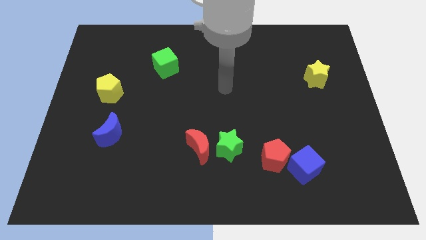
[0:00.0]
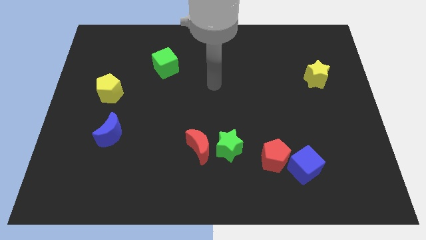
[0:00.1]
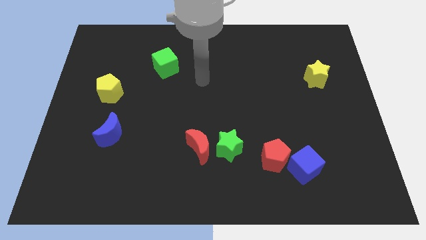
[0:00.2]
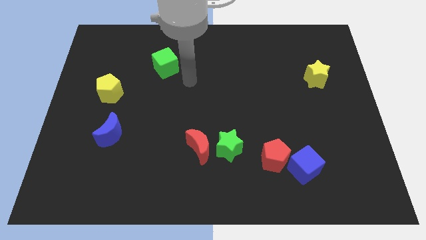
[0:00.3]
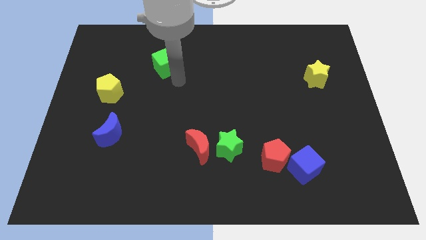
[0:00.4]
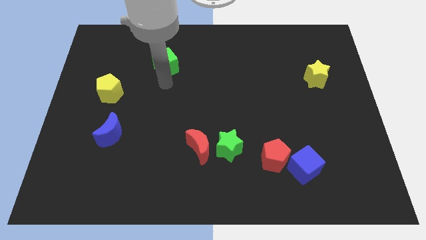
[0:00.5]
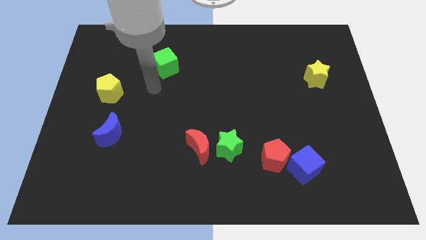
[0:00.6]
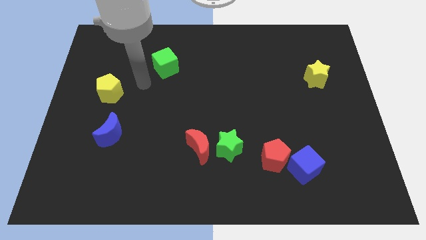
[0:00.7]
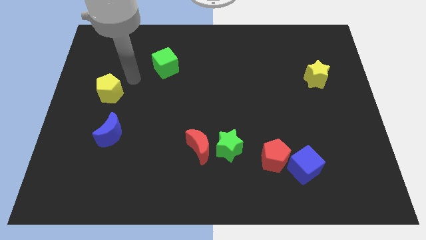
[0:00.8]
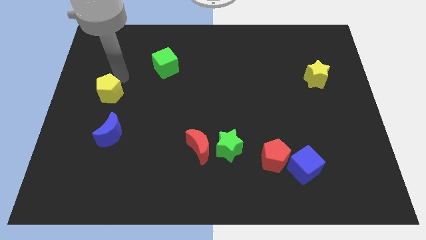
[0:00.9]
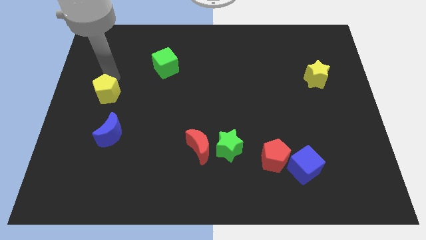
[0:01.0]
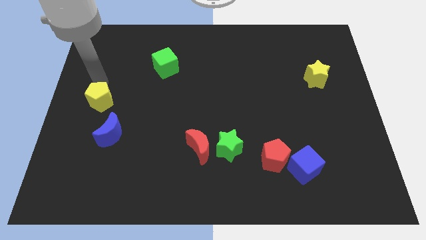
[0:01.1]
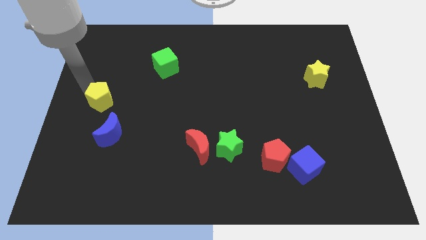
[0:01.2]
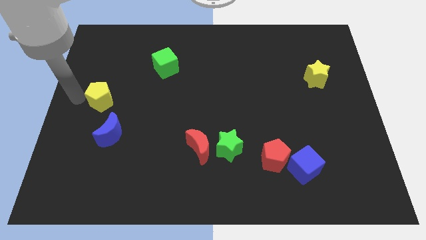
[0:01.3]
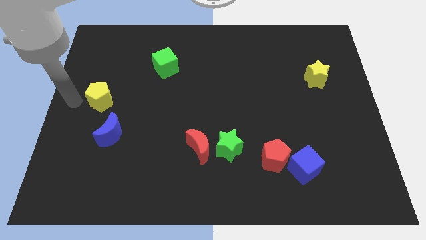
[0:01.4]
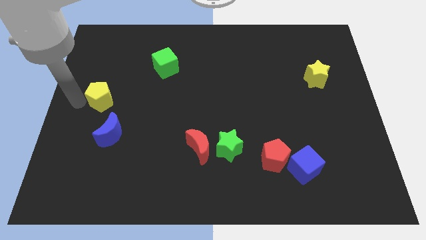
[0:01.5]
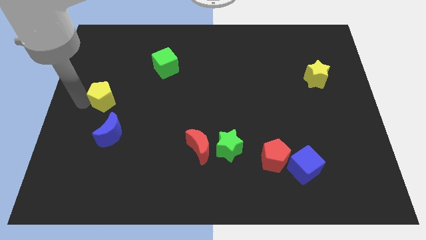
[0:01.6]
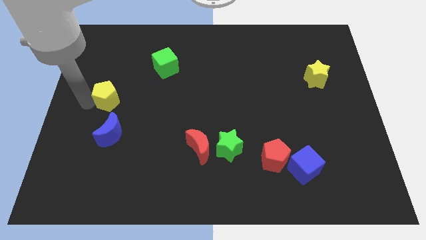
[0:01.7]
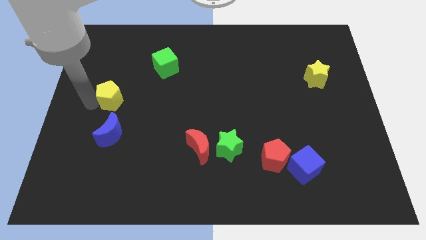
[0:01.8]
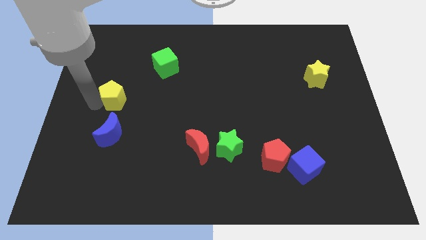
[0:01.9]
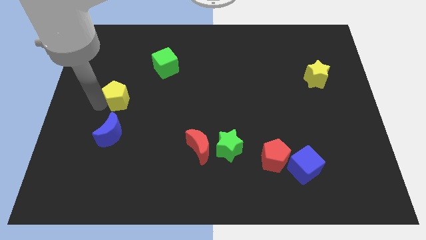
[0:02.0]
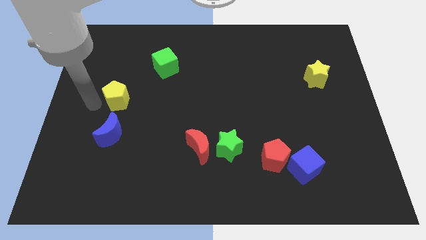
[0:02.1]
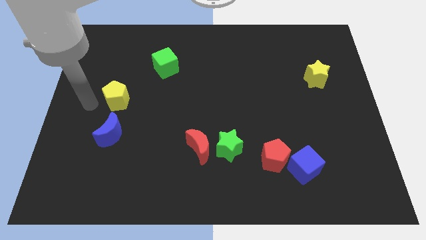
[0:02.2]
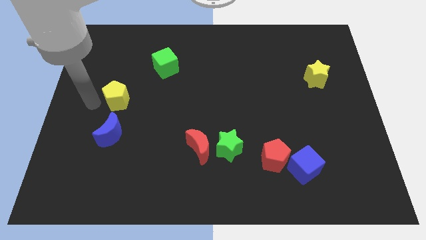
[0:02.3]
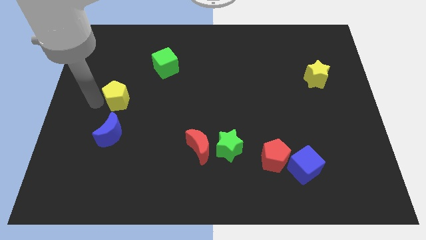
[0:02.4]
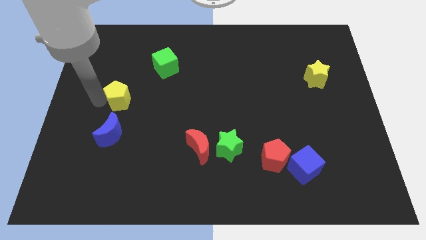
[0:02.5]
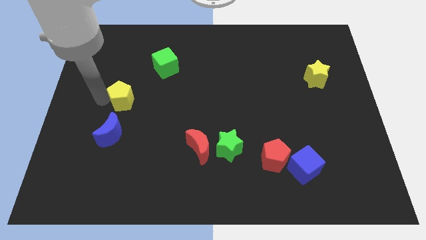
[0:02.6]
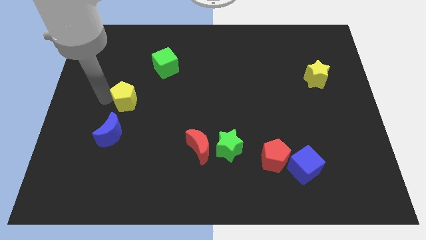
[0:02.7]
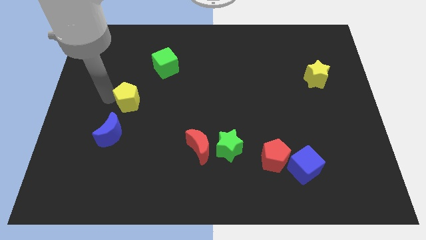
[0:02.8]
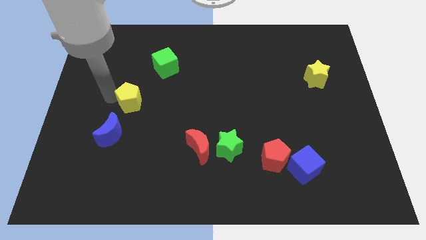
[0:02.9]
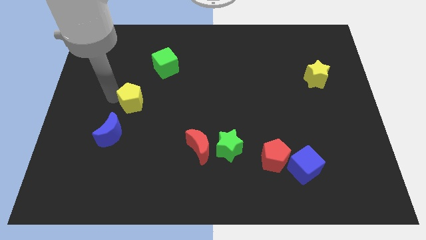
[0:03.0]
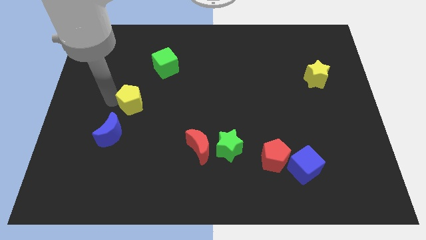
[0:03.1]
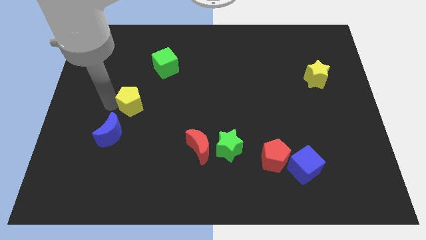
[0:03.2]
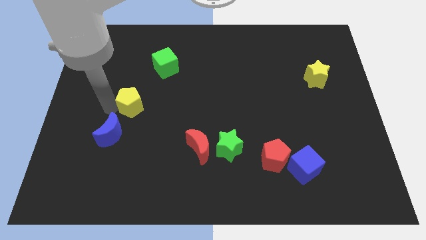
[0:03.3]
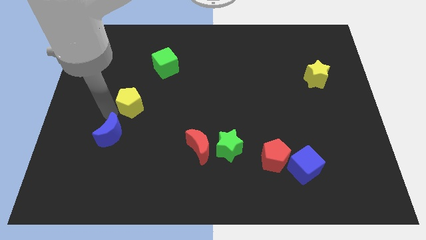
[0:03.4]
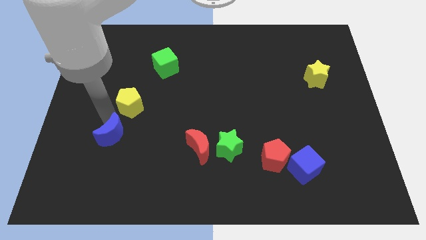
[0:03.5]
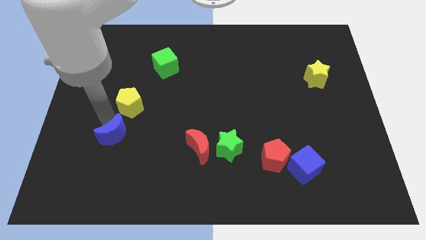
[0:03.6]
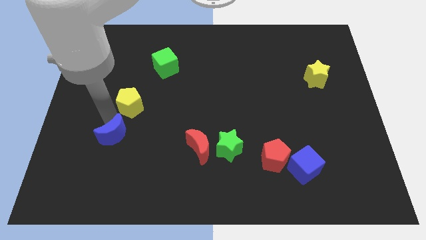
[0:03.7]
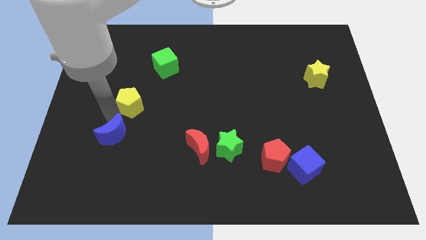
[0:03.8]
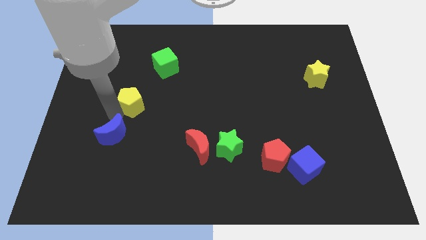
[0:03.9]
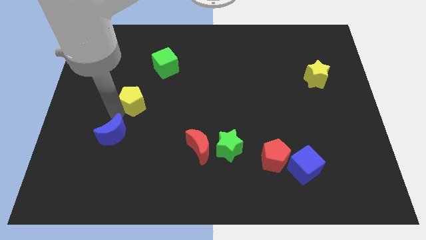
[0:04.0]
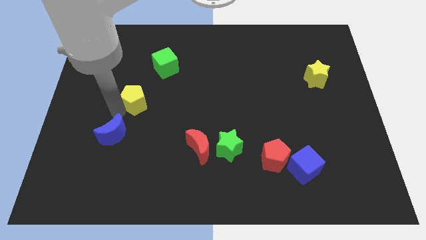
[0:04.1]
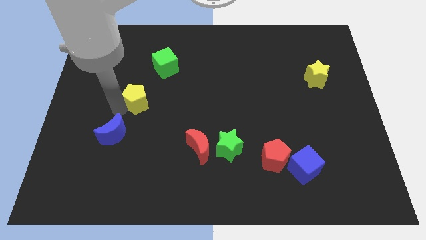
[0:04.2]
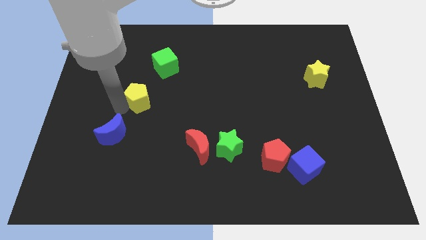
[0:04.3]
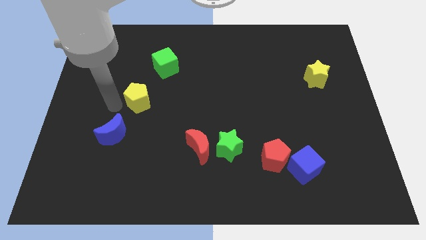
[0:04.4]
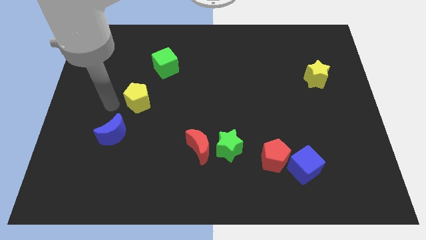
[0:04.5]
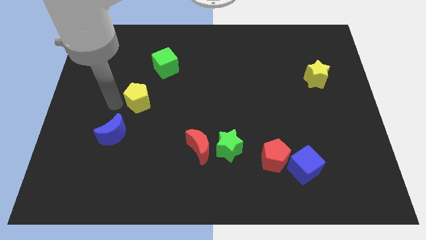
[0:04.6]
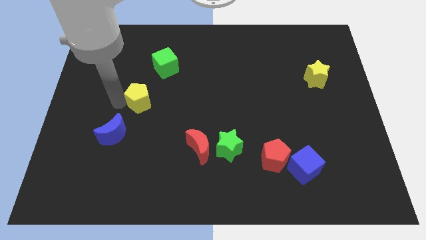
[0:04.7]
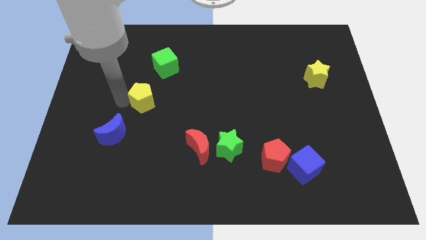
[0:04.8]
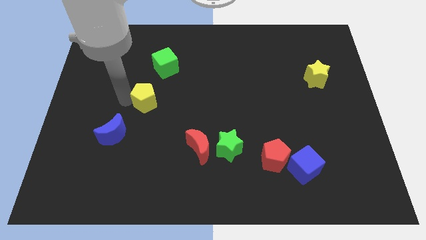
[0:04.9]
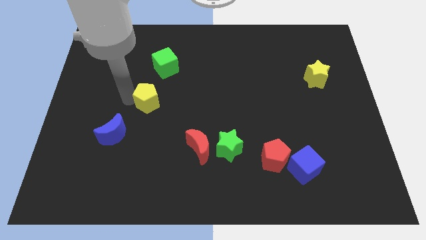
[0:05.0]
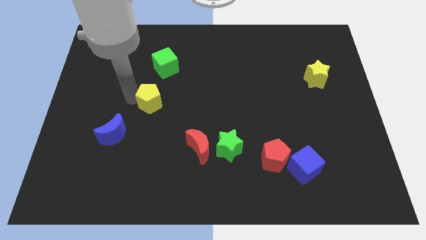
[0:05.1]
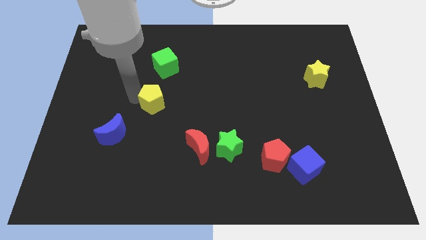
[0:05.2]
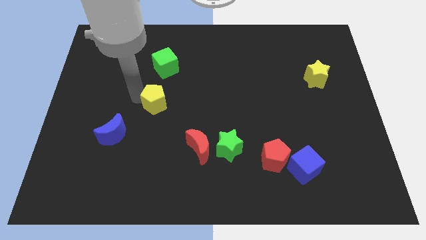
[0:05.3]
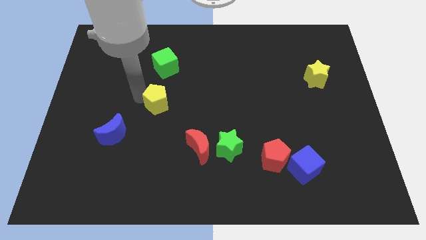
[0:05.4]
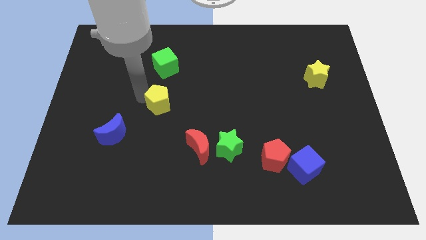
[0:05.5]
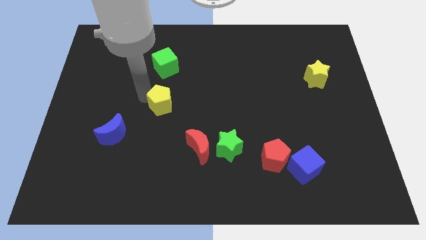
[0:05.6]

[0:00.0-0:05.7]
move the yellow pentagon to the middle

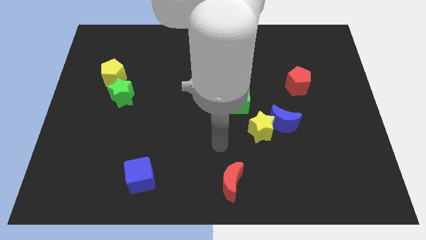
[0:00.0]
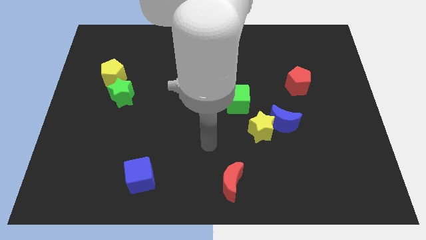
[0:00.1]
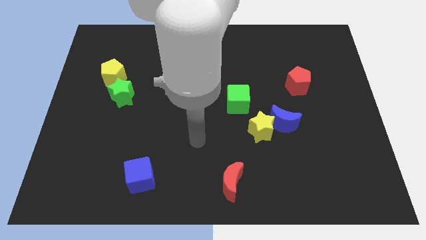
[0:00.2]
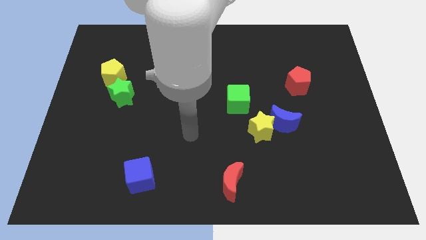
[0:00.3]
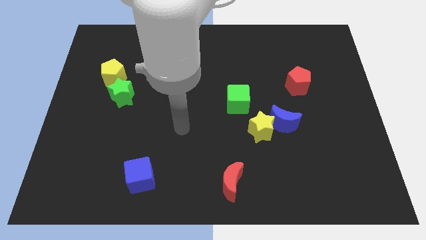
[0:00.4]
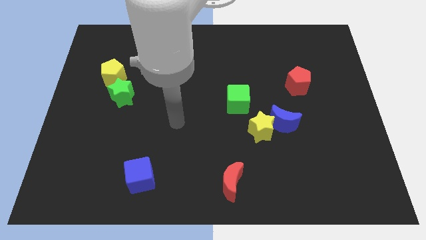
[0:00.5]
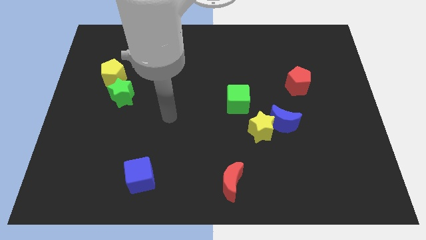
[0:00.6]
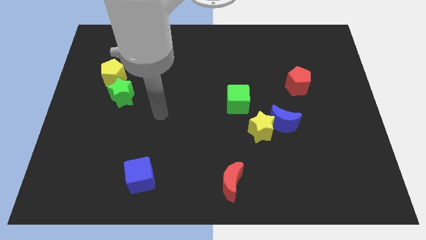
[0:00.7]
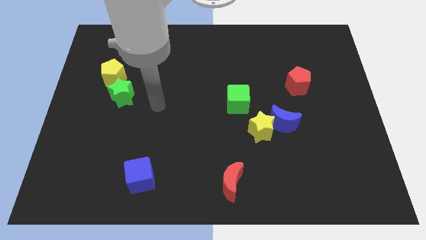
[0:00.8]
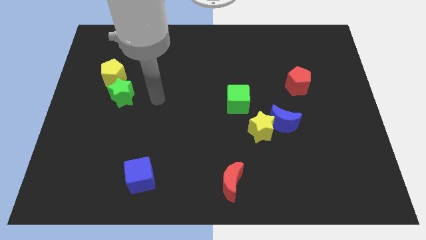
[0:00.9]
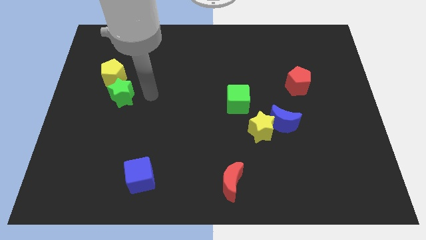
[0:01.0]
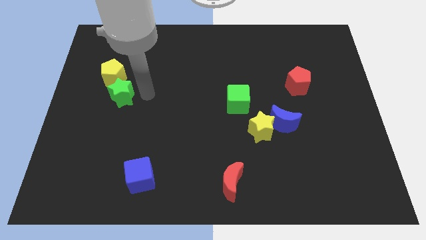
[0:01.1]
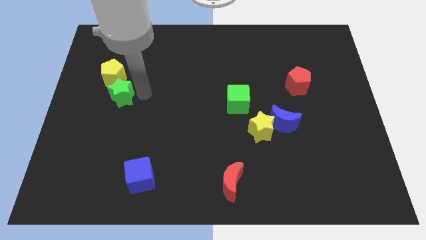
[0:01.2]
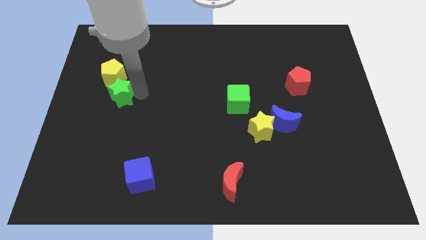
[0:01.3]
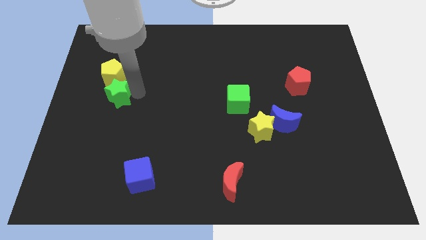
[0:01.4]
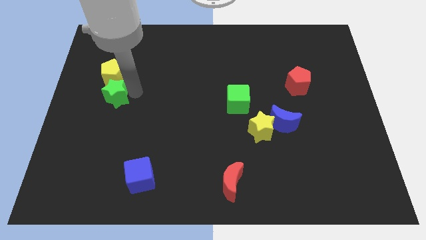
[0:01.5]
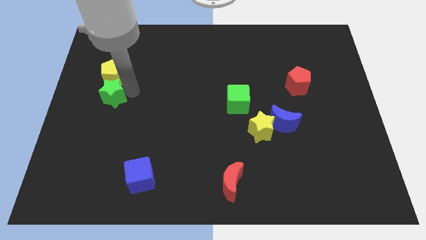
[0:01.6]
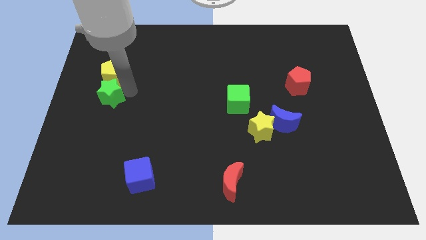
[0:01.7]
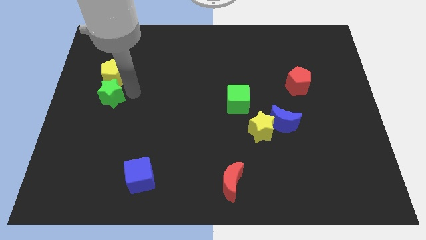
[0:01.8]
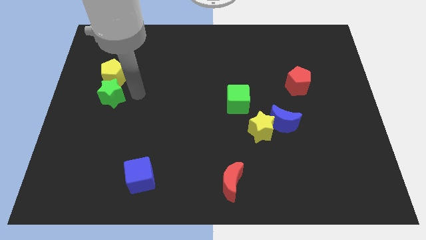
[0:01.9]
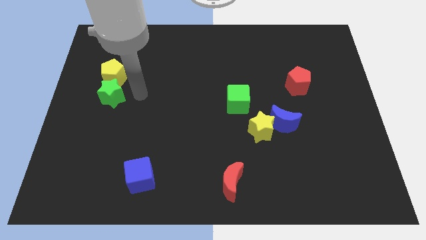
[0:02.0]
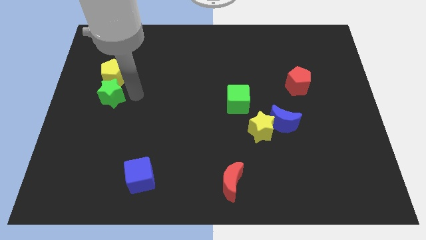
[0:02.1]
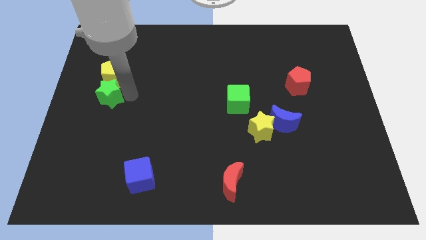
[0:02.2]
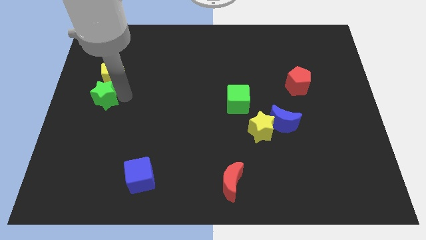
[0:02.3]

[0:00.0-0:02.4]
push the green star to the left side
